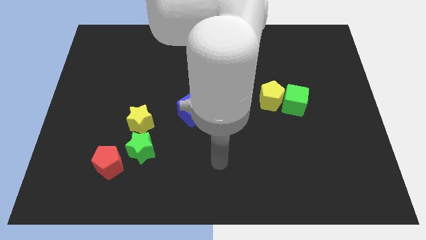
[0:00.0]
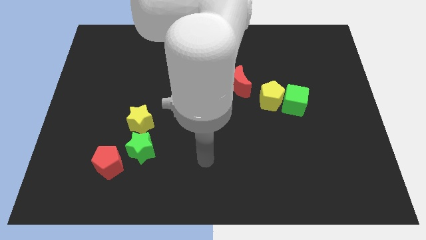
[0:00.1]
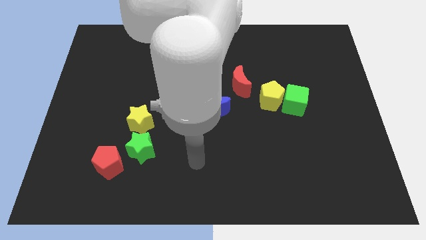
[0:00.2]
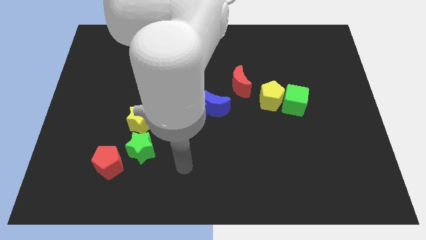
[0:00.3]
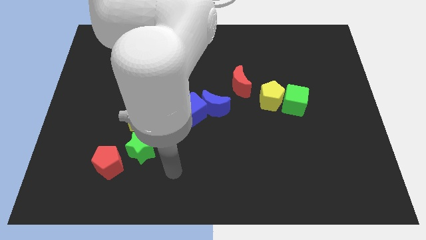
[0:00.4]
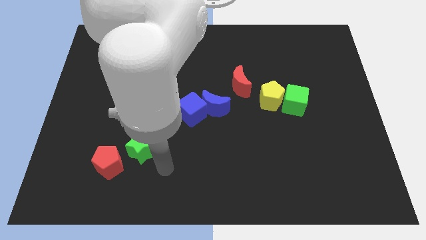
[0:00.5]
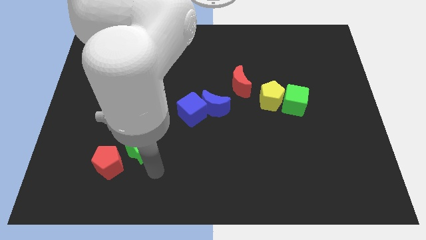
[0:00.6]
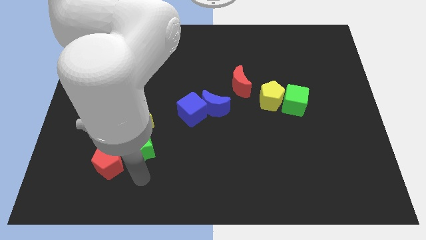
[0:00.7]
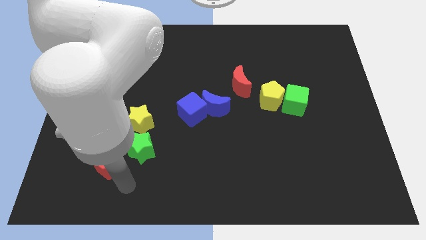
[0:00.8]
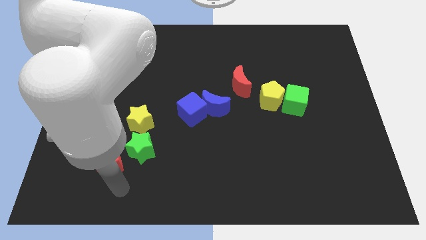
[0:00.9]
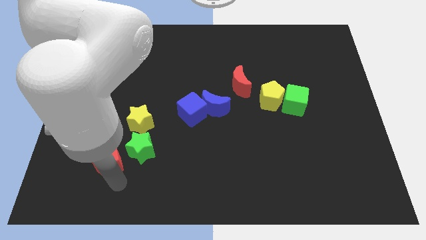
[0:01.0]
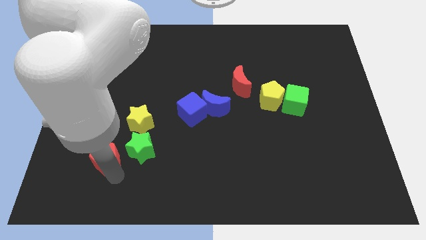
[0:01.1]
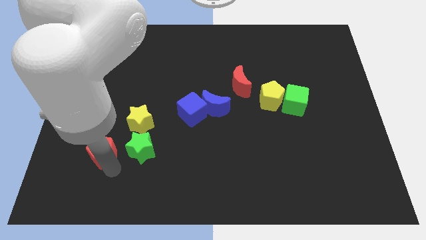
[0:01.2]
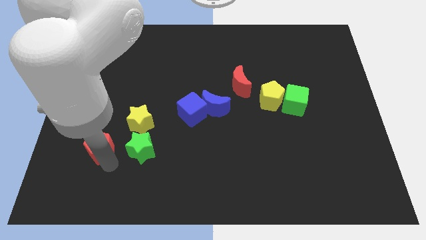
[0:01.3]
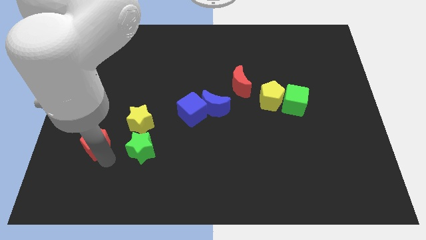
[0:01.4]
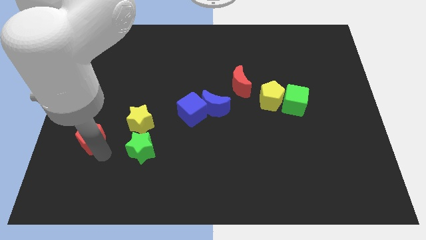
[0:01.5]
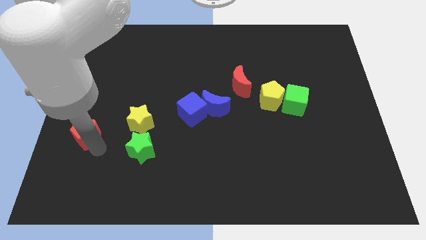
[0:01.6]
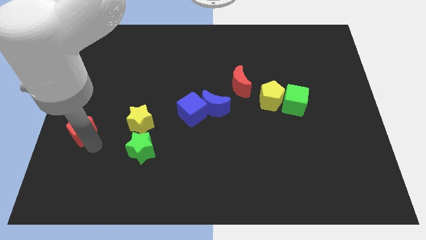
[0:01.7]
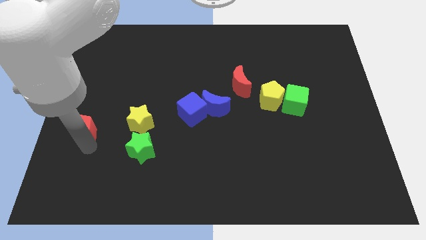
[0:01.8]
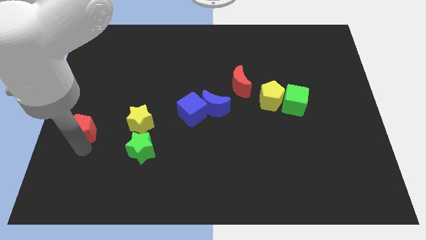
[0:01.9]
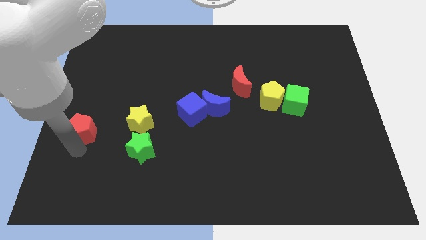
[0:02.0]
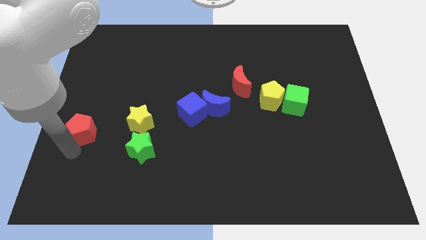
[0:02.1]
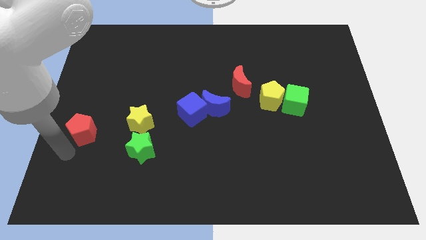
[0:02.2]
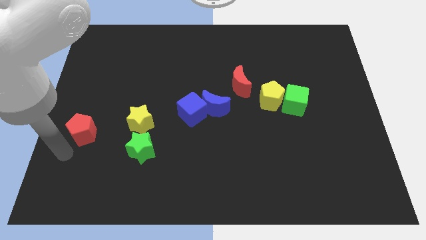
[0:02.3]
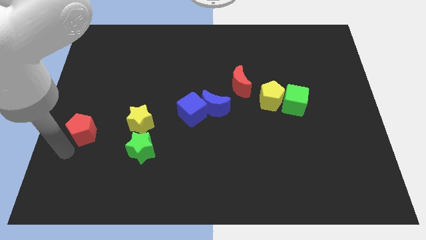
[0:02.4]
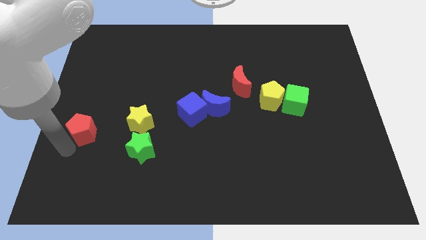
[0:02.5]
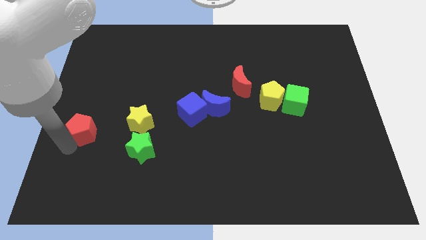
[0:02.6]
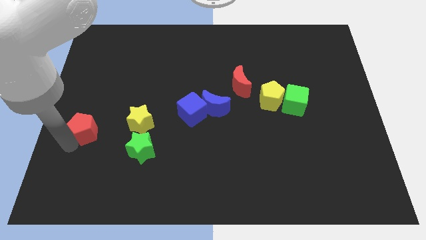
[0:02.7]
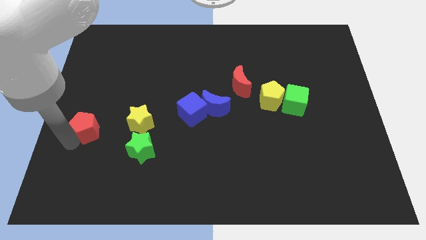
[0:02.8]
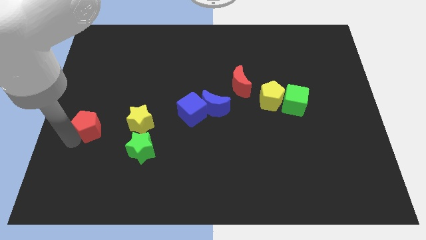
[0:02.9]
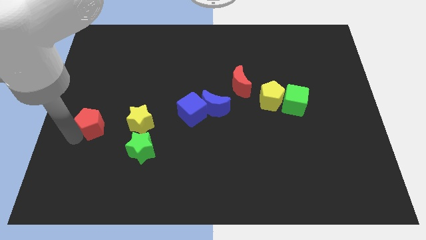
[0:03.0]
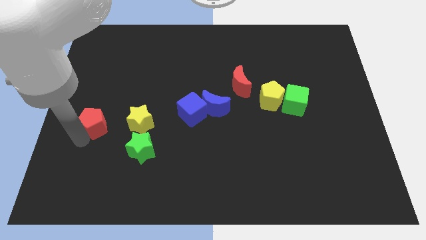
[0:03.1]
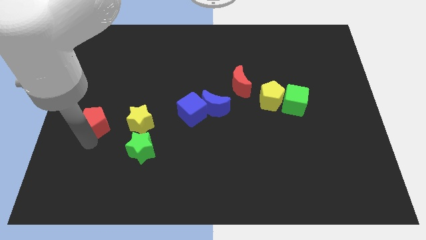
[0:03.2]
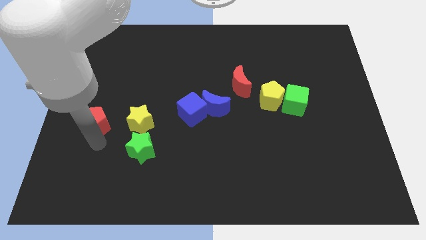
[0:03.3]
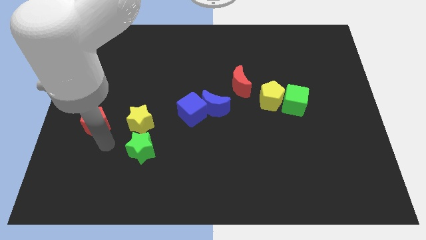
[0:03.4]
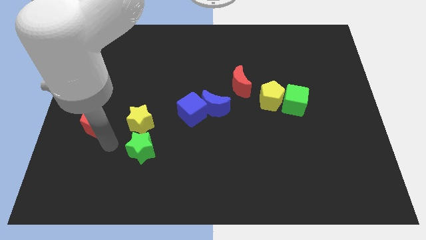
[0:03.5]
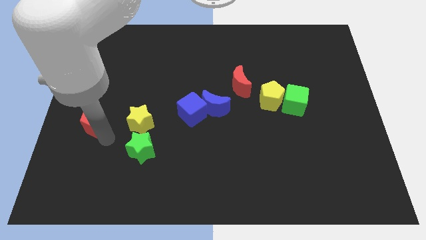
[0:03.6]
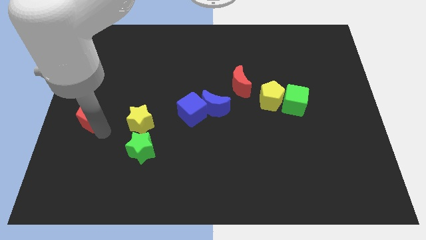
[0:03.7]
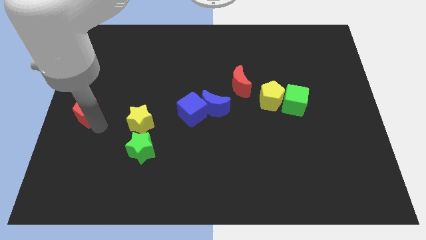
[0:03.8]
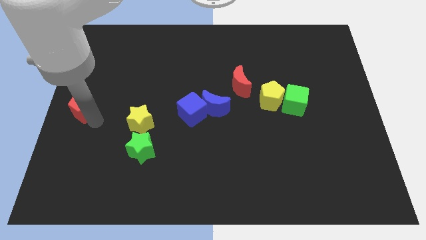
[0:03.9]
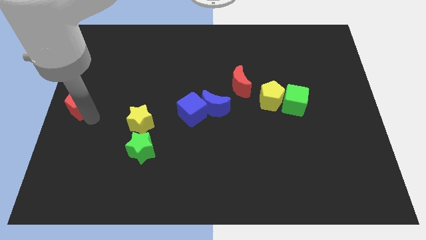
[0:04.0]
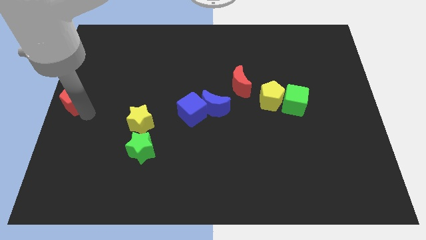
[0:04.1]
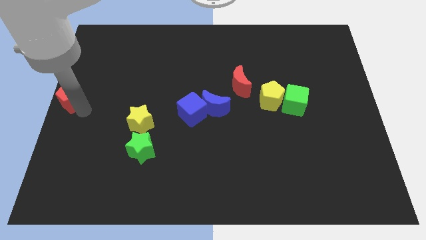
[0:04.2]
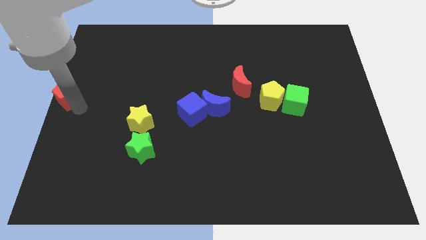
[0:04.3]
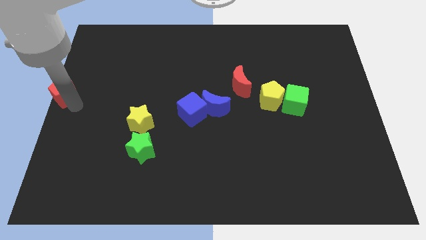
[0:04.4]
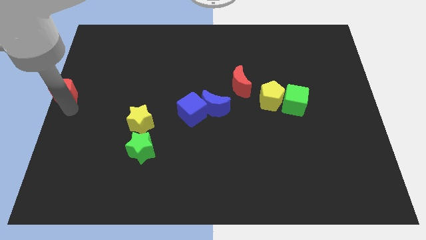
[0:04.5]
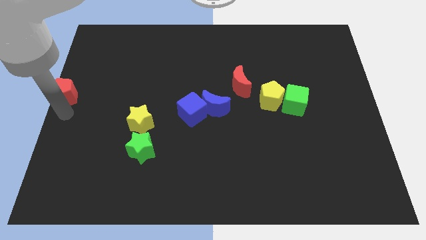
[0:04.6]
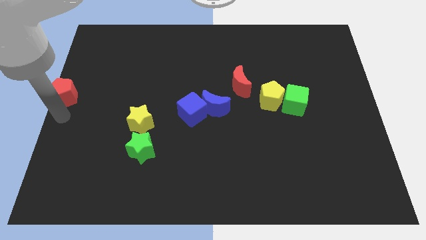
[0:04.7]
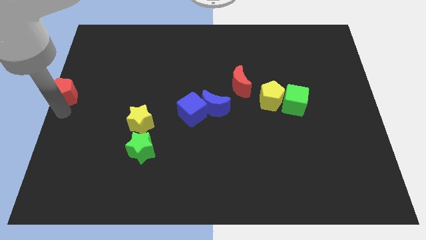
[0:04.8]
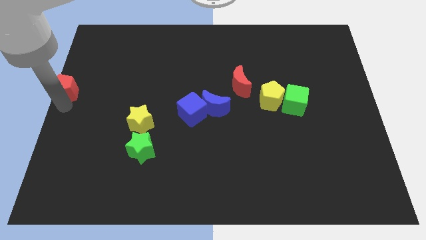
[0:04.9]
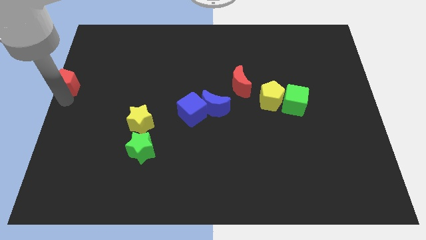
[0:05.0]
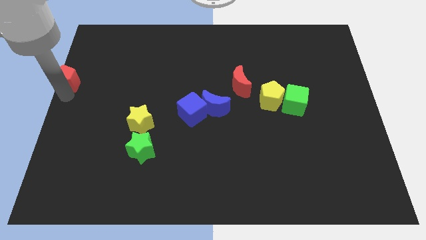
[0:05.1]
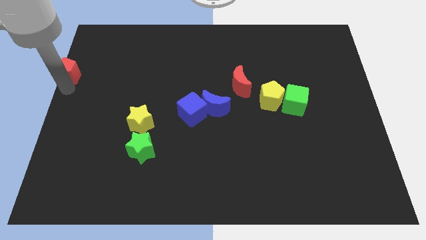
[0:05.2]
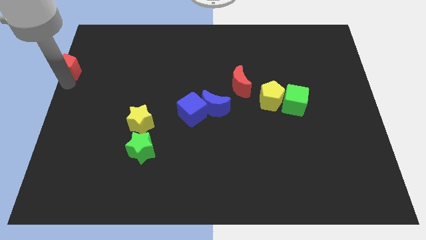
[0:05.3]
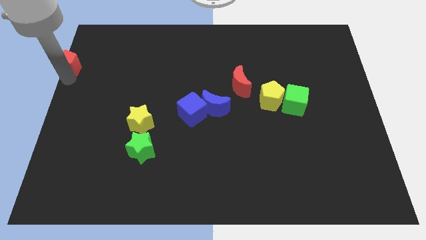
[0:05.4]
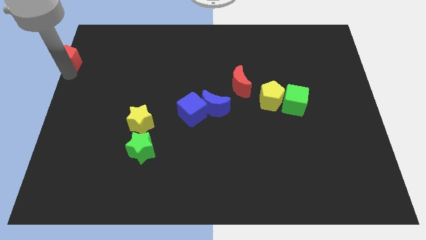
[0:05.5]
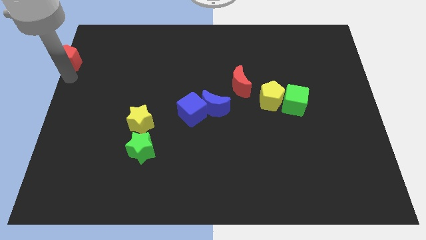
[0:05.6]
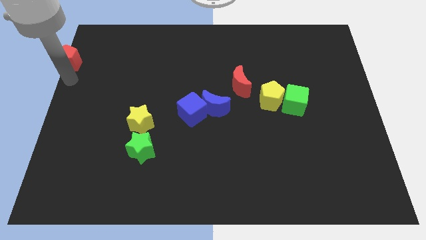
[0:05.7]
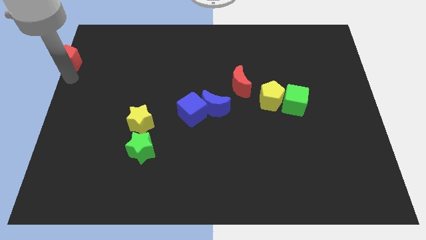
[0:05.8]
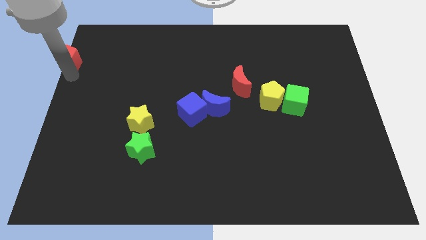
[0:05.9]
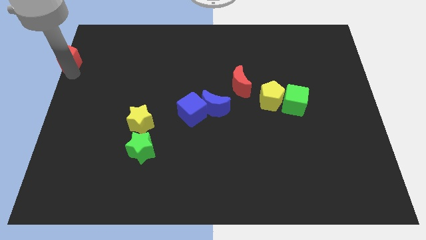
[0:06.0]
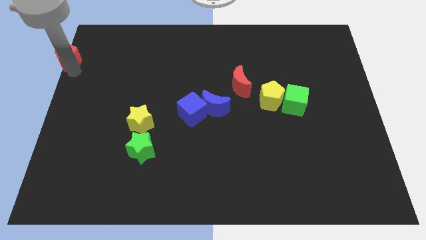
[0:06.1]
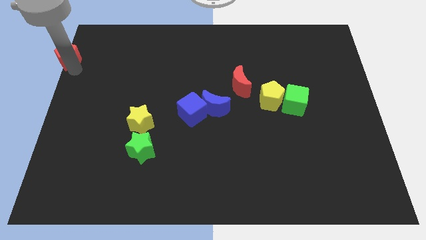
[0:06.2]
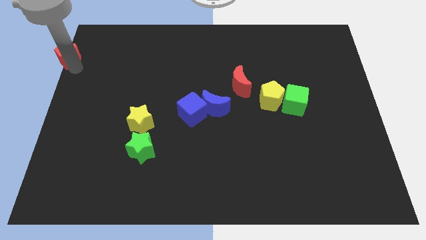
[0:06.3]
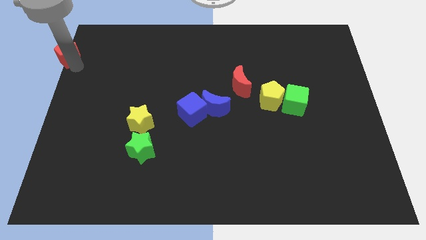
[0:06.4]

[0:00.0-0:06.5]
move the red pentagon to the top left

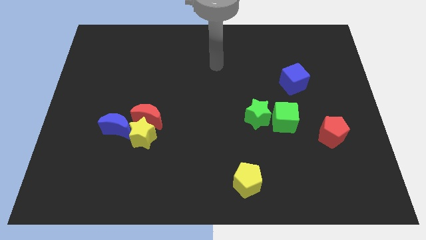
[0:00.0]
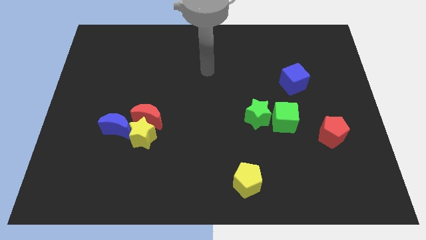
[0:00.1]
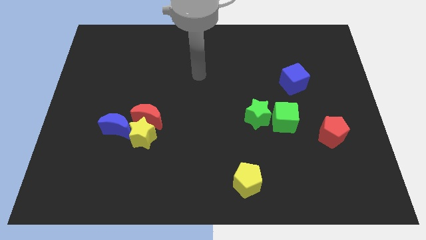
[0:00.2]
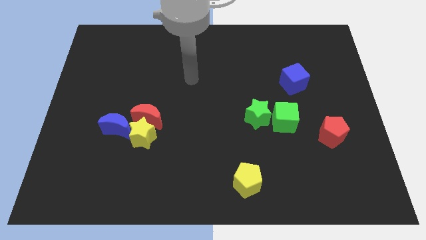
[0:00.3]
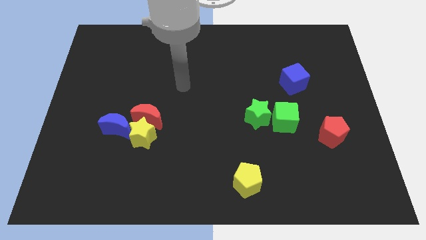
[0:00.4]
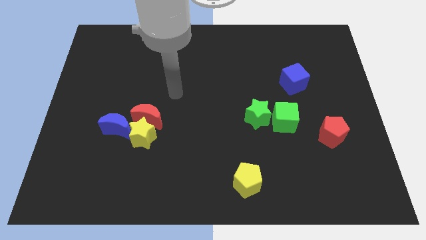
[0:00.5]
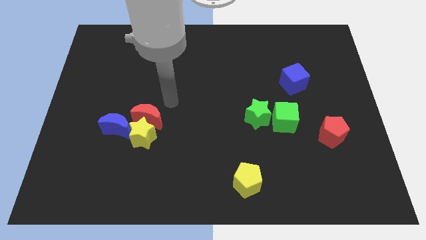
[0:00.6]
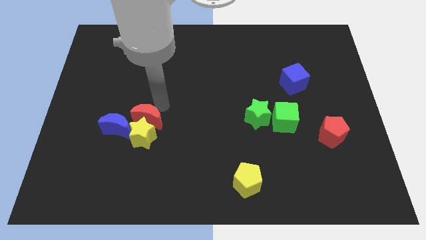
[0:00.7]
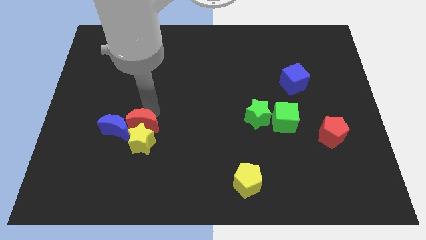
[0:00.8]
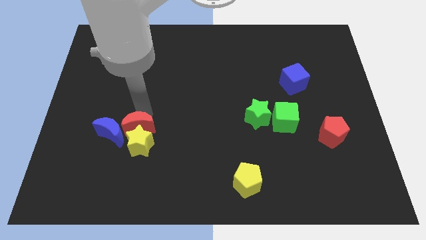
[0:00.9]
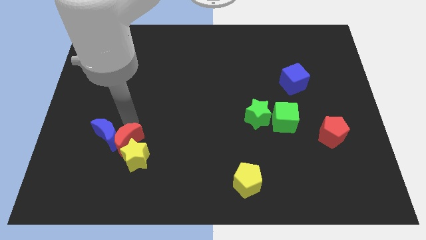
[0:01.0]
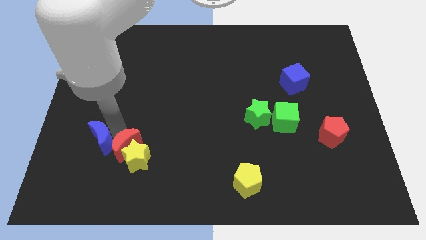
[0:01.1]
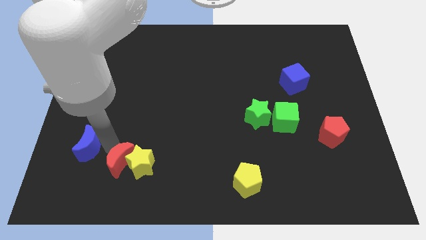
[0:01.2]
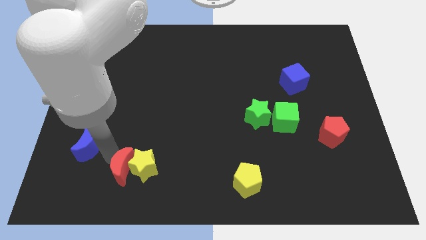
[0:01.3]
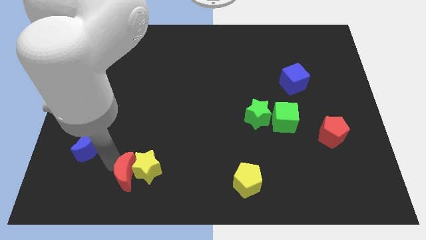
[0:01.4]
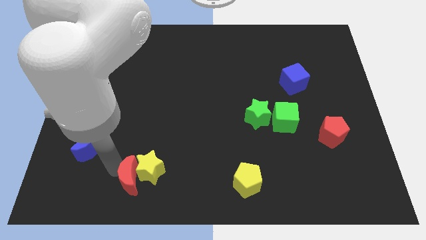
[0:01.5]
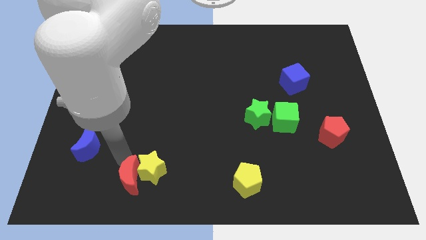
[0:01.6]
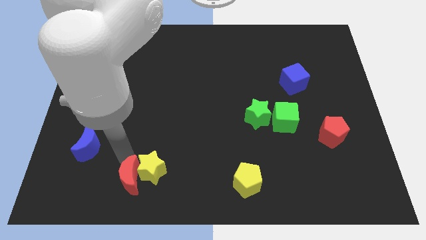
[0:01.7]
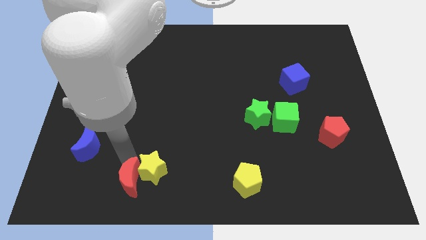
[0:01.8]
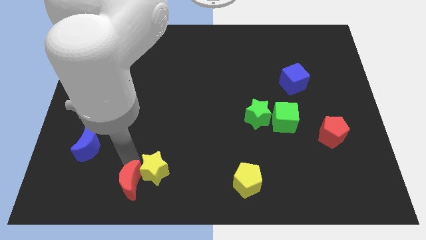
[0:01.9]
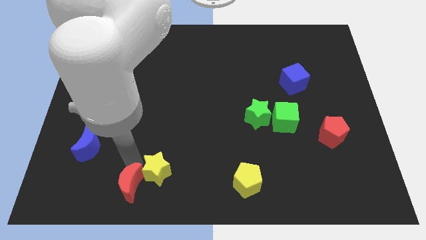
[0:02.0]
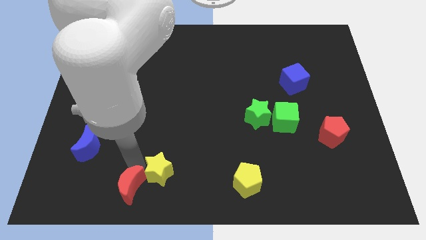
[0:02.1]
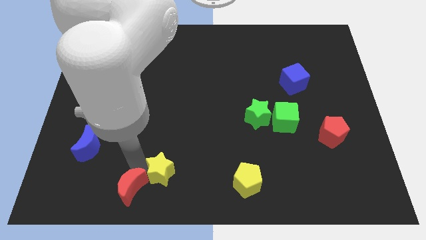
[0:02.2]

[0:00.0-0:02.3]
move the yellow star to the bottom side
